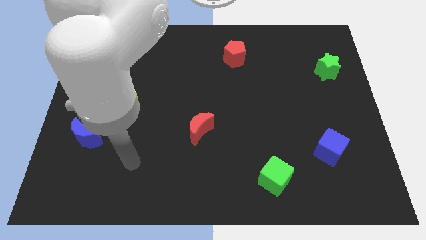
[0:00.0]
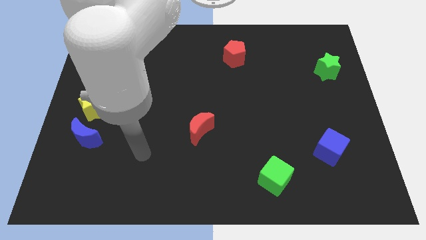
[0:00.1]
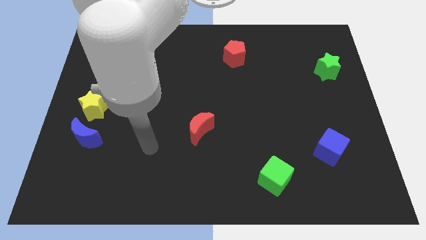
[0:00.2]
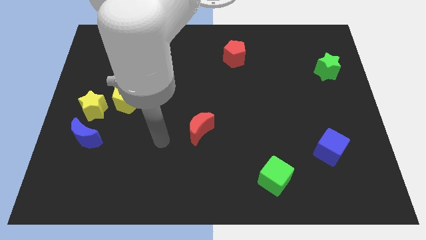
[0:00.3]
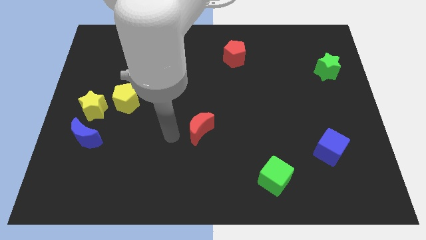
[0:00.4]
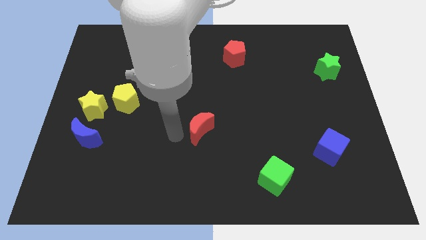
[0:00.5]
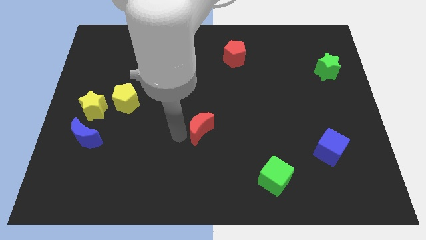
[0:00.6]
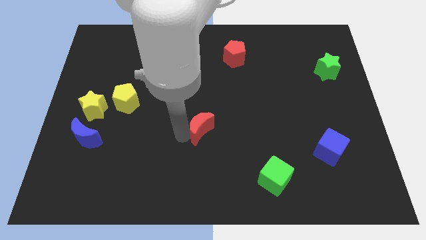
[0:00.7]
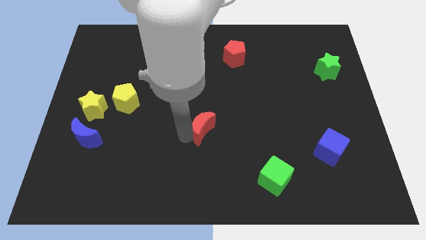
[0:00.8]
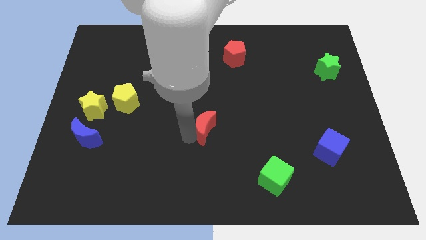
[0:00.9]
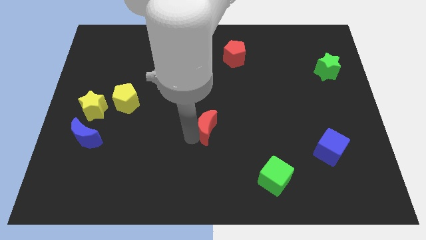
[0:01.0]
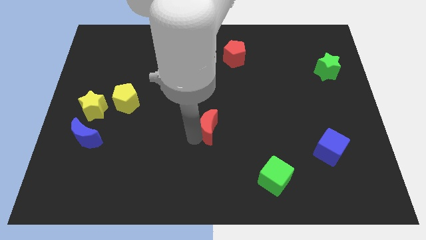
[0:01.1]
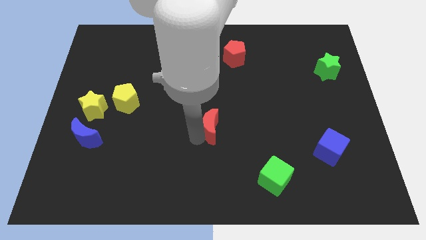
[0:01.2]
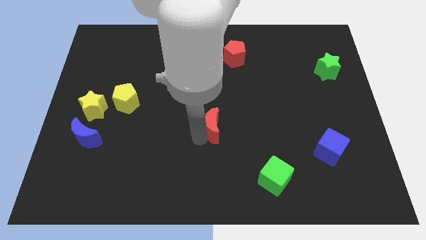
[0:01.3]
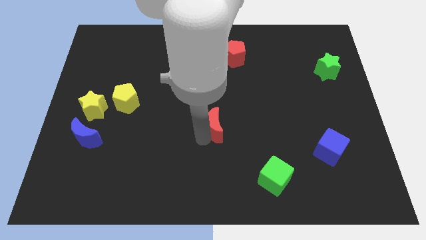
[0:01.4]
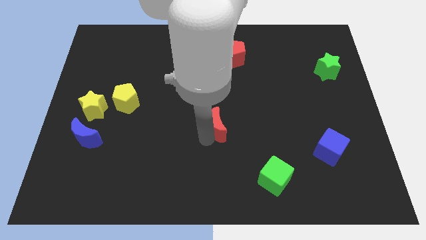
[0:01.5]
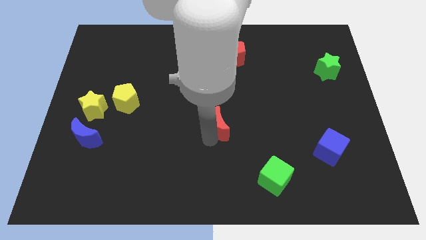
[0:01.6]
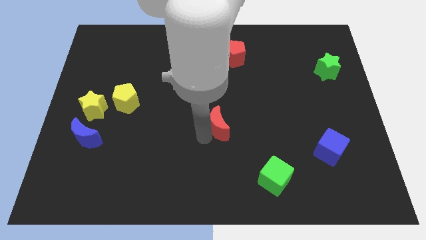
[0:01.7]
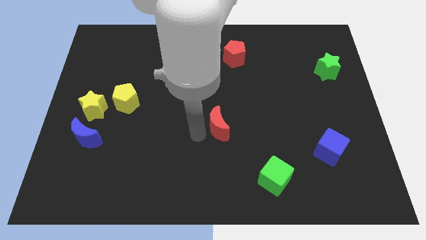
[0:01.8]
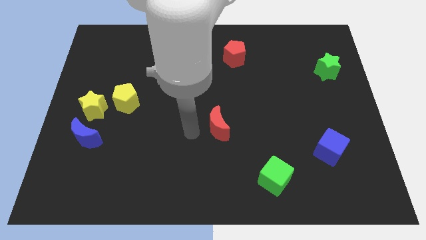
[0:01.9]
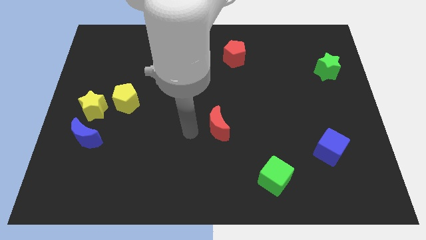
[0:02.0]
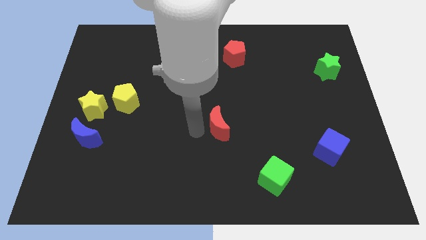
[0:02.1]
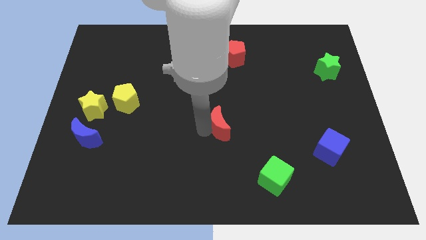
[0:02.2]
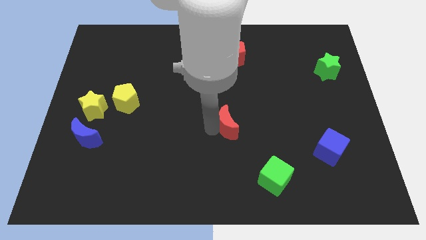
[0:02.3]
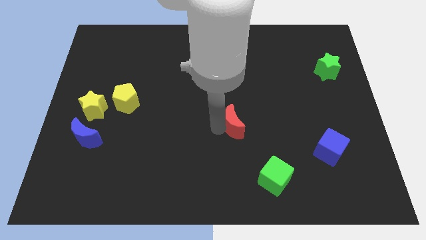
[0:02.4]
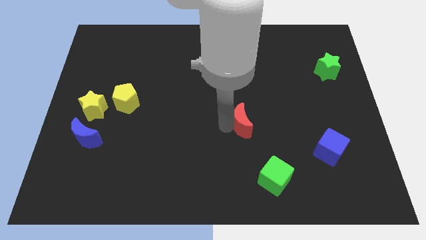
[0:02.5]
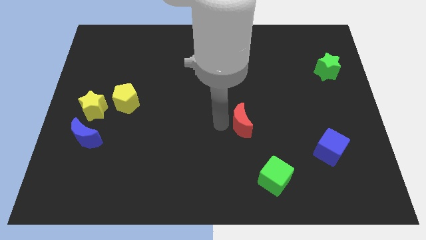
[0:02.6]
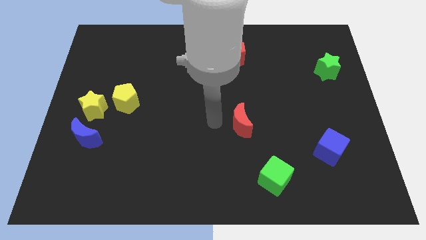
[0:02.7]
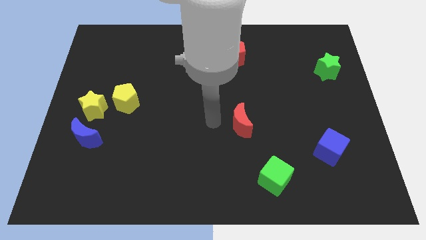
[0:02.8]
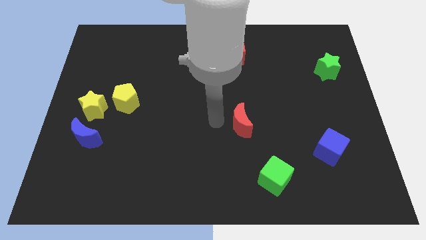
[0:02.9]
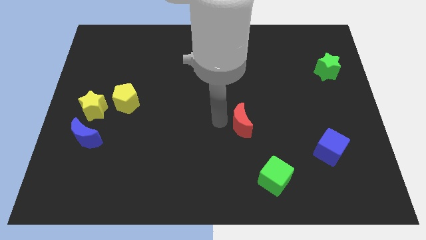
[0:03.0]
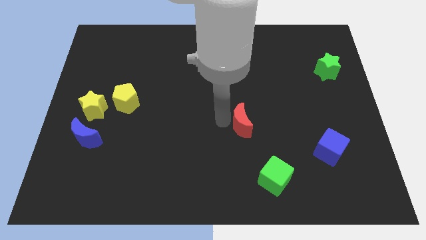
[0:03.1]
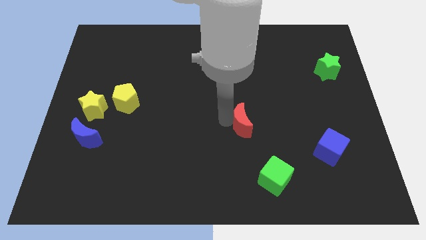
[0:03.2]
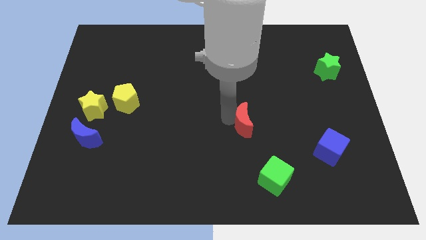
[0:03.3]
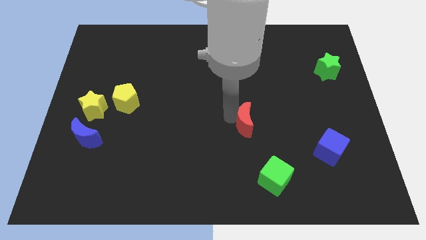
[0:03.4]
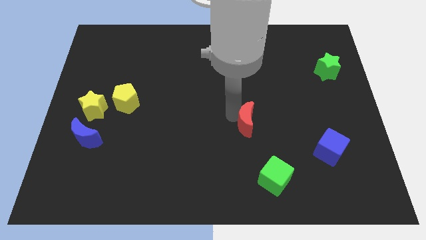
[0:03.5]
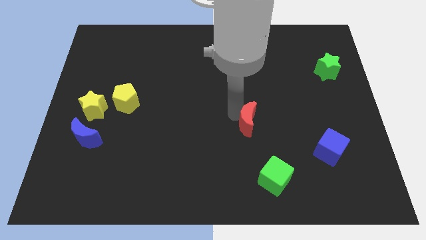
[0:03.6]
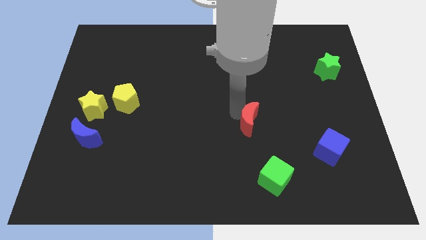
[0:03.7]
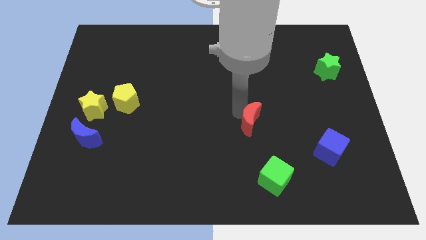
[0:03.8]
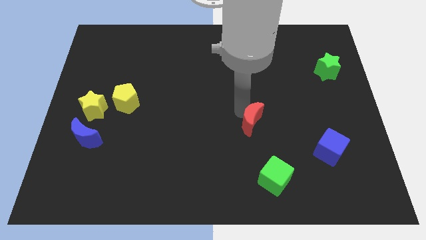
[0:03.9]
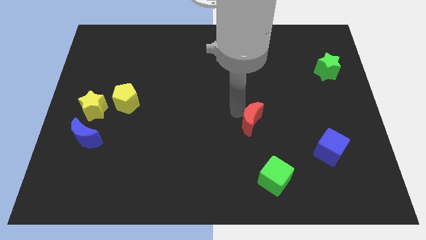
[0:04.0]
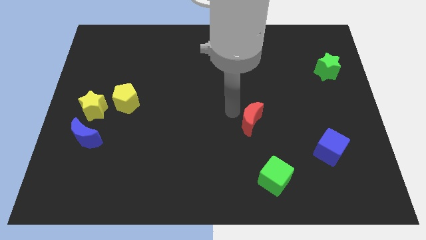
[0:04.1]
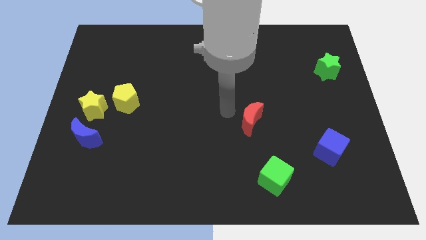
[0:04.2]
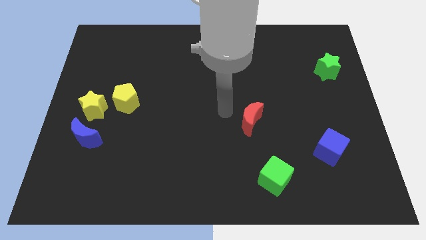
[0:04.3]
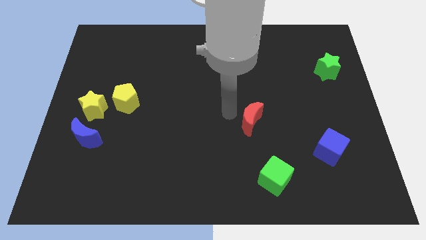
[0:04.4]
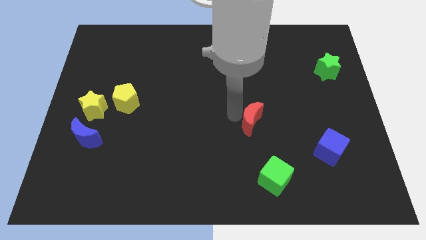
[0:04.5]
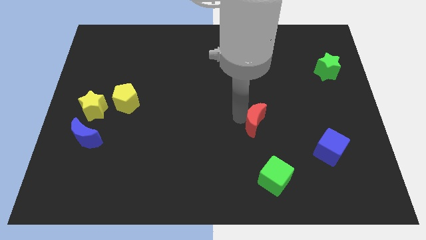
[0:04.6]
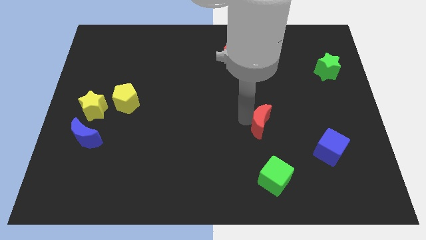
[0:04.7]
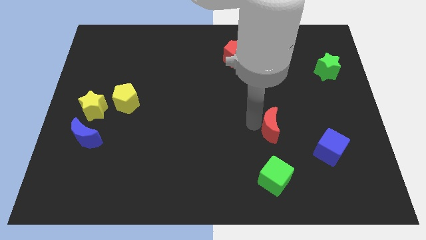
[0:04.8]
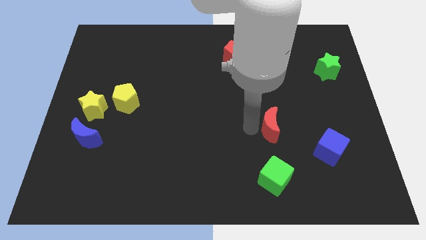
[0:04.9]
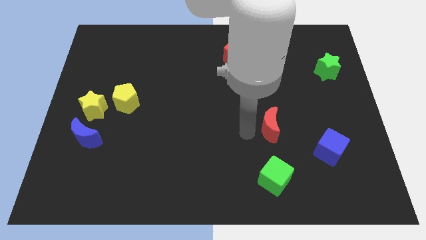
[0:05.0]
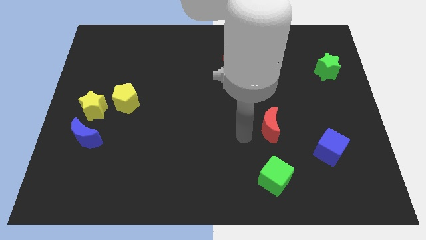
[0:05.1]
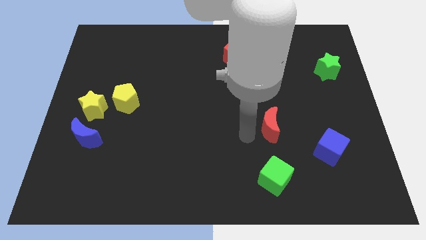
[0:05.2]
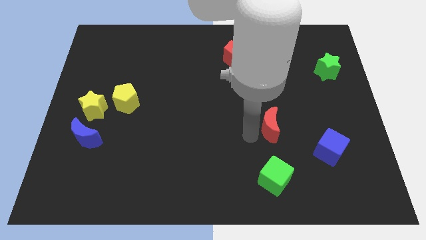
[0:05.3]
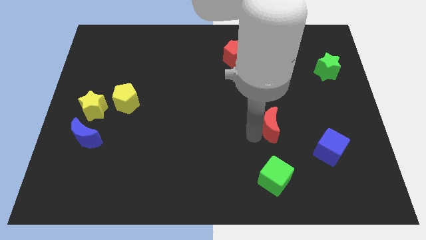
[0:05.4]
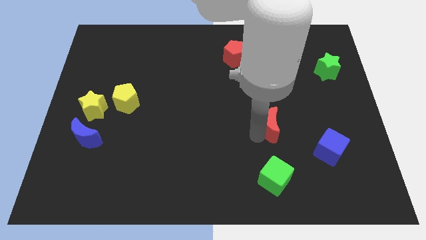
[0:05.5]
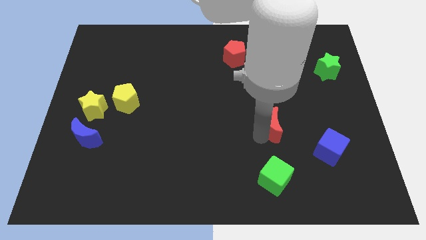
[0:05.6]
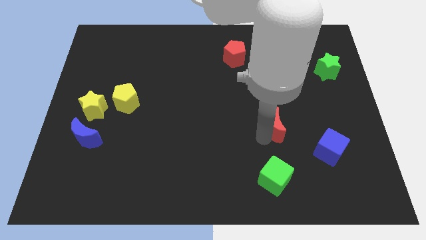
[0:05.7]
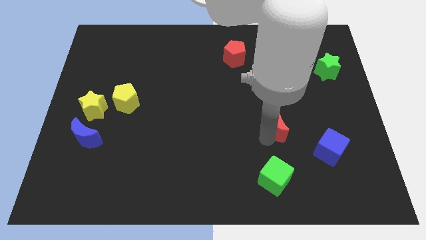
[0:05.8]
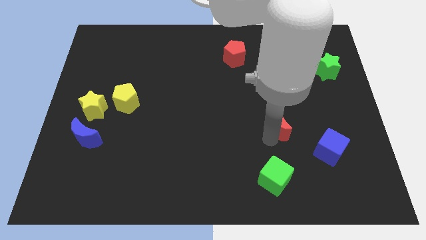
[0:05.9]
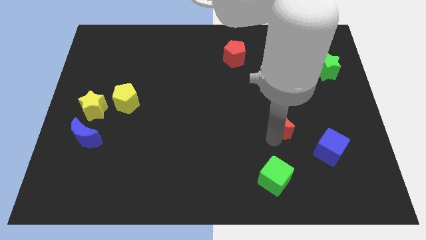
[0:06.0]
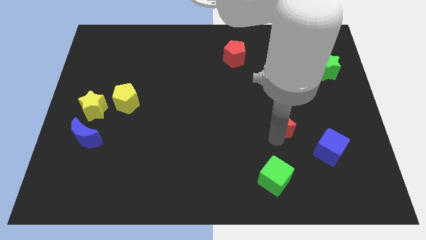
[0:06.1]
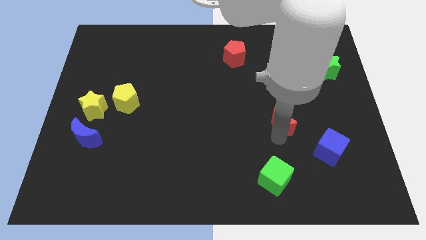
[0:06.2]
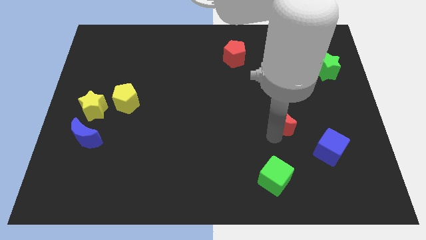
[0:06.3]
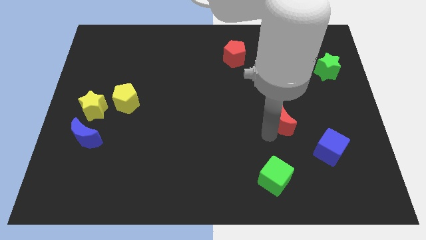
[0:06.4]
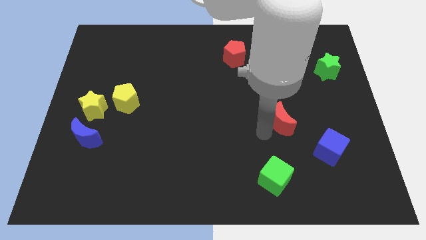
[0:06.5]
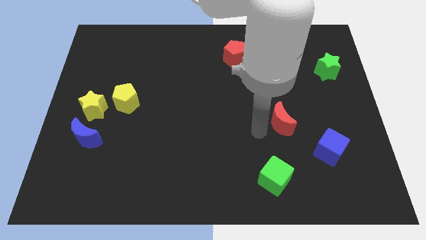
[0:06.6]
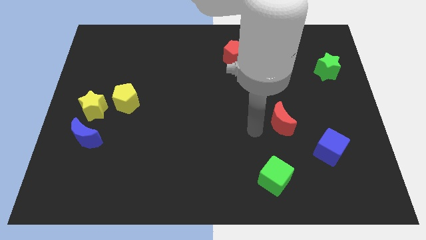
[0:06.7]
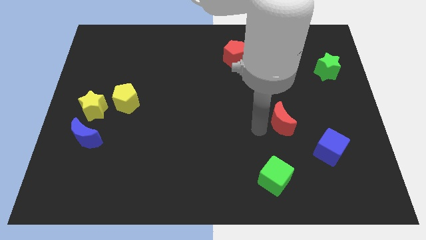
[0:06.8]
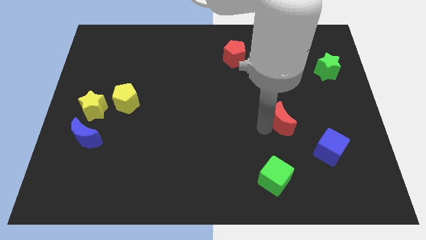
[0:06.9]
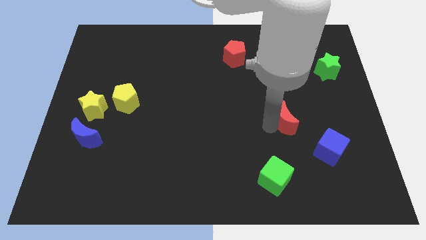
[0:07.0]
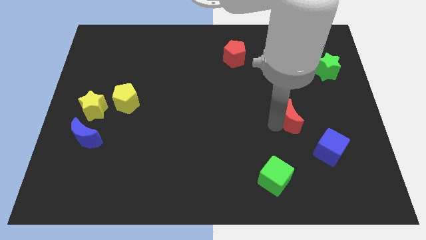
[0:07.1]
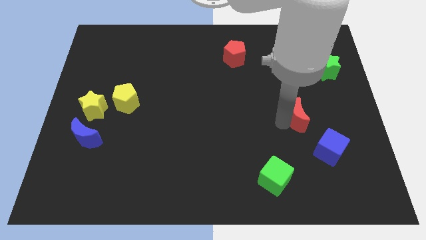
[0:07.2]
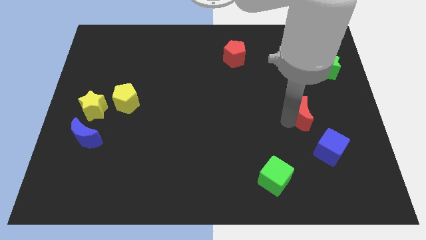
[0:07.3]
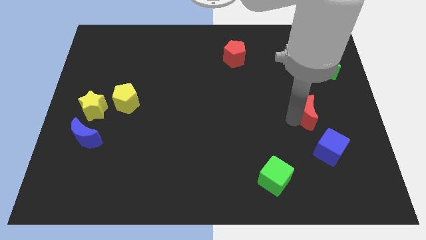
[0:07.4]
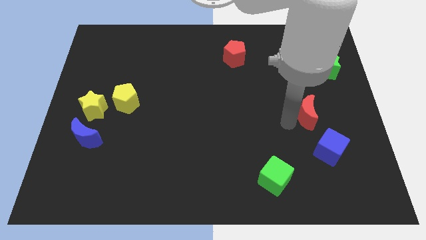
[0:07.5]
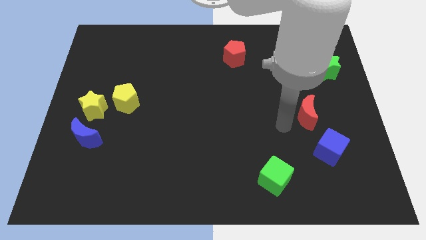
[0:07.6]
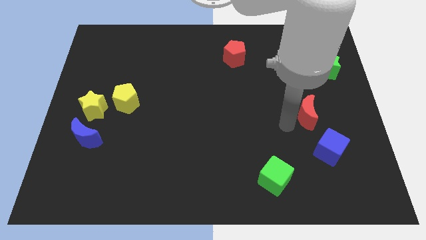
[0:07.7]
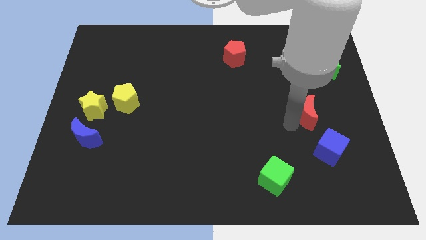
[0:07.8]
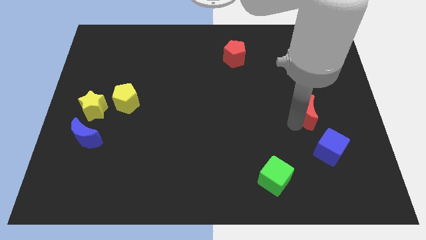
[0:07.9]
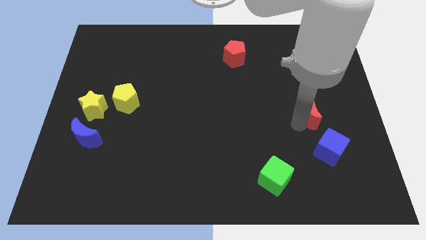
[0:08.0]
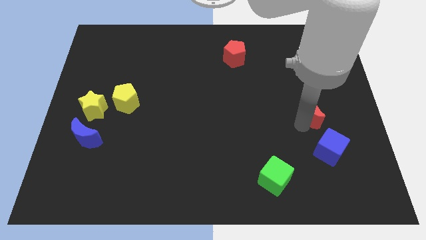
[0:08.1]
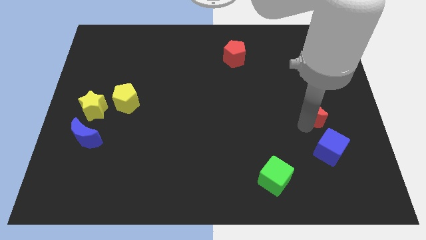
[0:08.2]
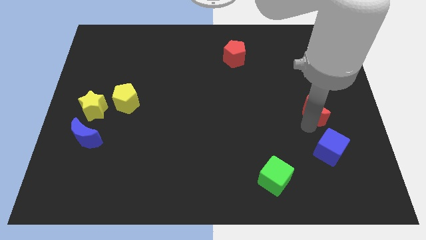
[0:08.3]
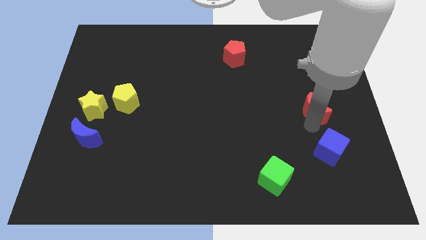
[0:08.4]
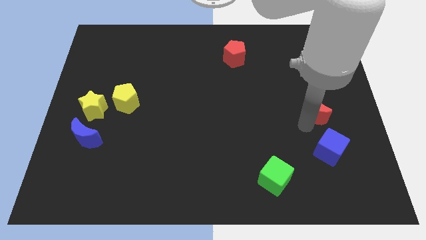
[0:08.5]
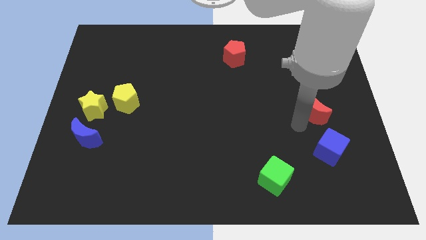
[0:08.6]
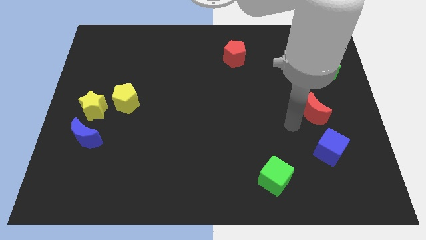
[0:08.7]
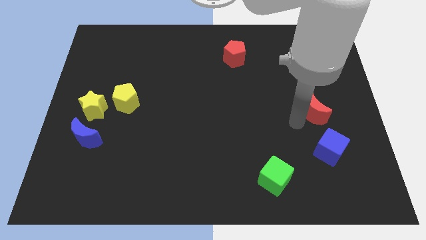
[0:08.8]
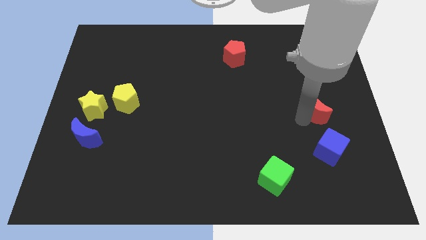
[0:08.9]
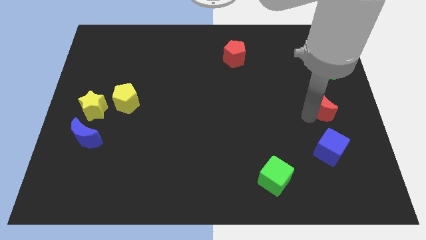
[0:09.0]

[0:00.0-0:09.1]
push the red moon to the bottom side of the green star
